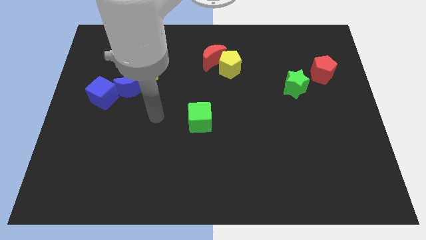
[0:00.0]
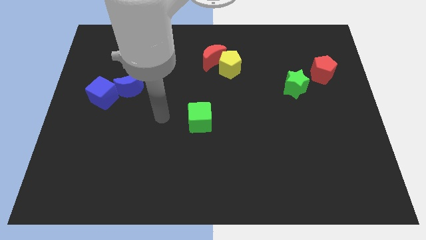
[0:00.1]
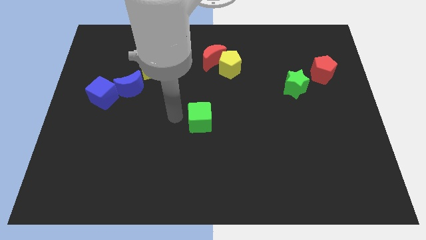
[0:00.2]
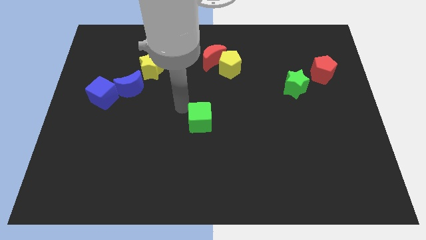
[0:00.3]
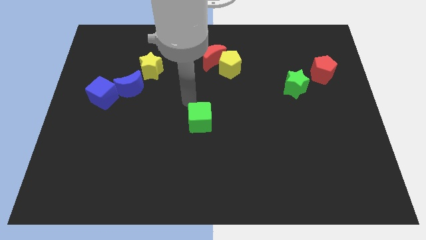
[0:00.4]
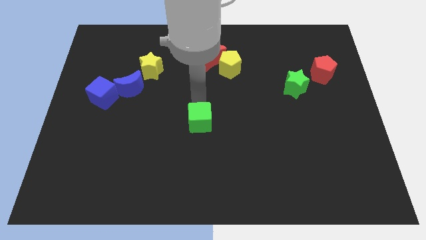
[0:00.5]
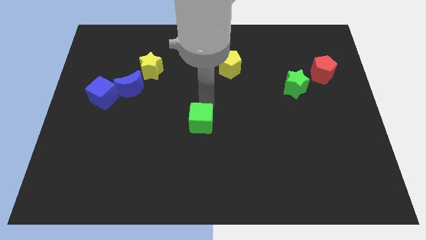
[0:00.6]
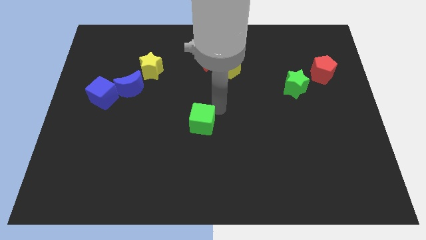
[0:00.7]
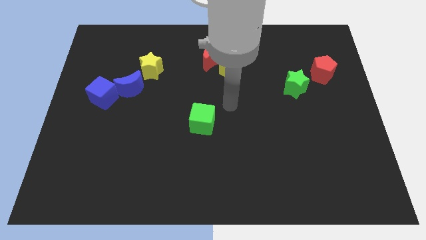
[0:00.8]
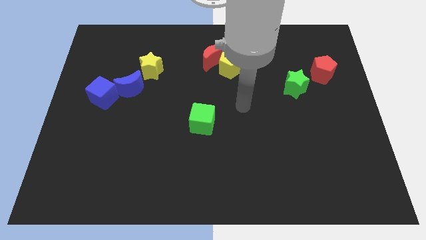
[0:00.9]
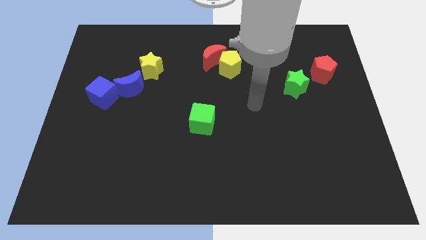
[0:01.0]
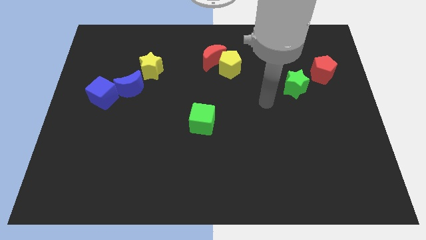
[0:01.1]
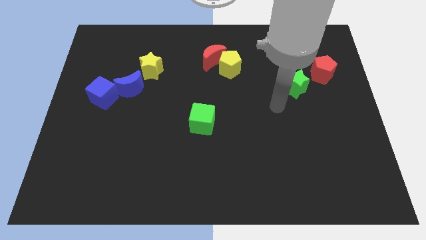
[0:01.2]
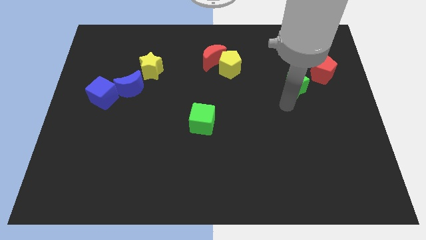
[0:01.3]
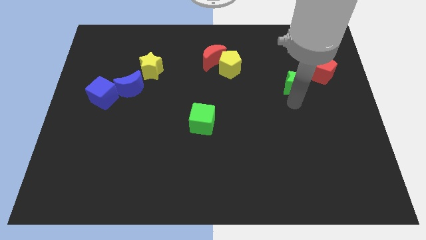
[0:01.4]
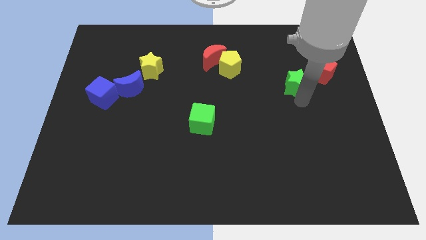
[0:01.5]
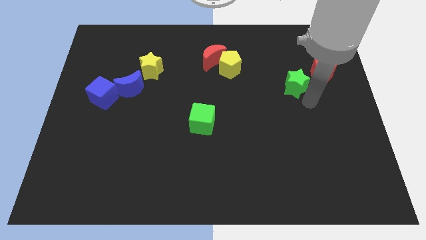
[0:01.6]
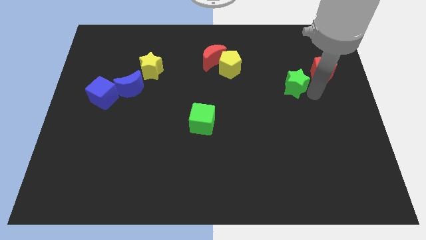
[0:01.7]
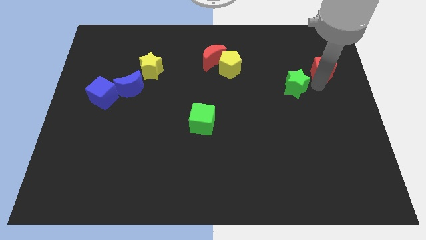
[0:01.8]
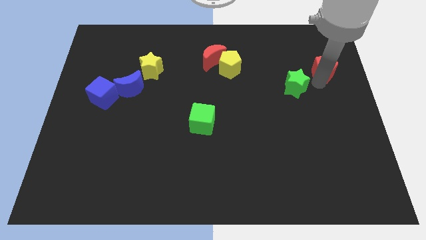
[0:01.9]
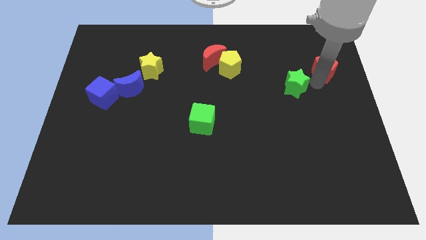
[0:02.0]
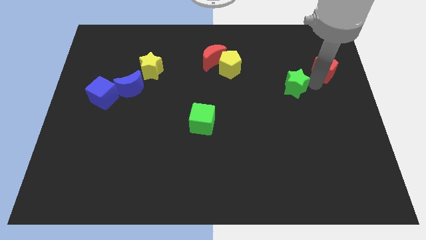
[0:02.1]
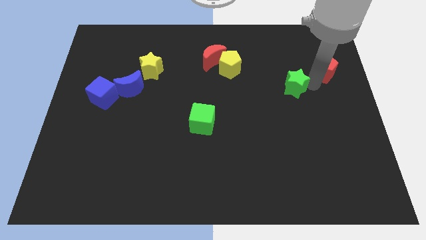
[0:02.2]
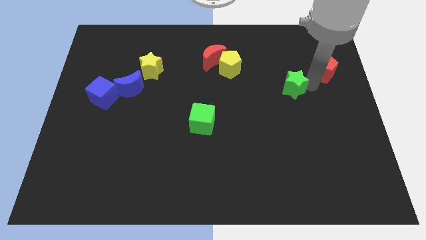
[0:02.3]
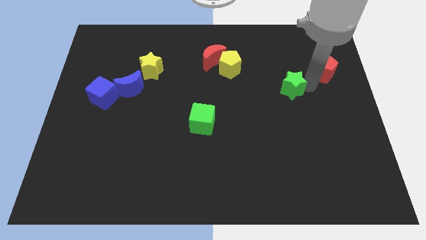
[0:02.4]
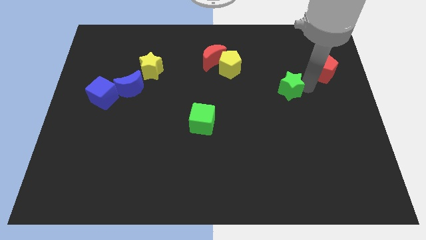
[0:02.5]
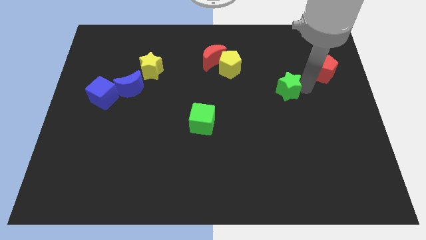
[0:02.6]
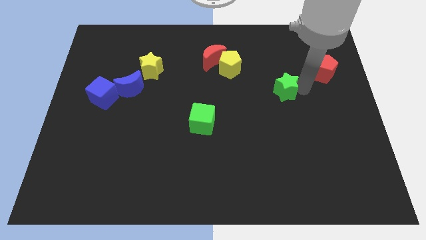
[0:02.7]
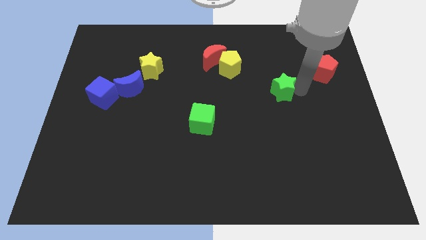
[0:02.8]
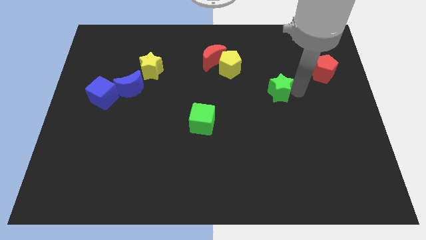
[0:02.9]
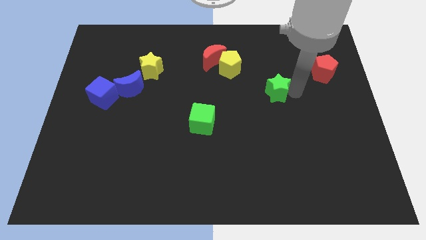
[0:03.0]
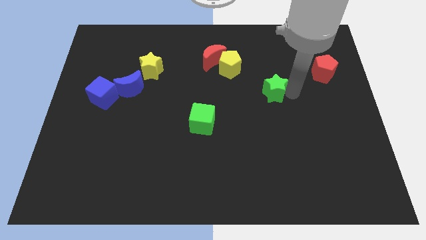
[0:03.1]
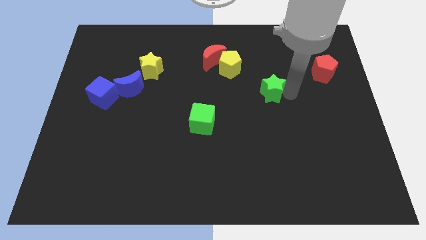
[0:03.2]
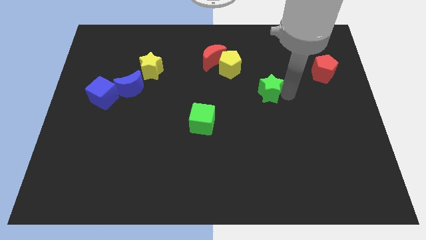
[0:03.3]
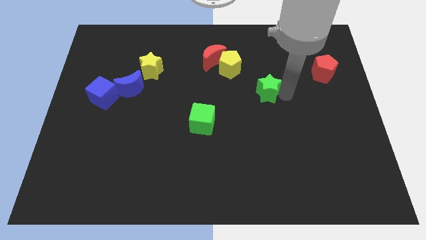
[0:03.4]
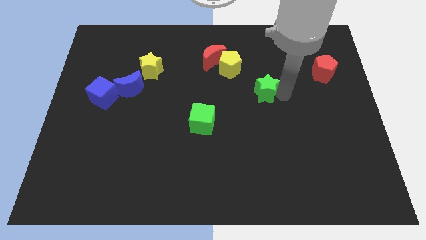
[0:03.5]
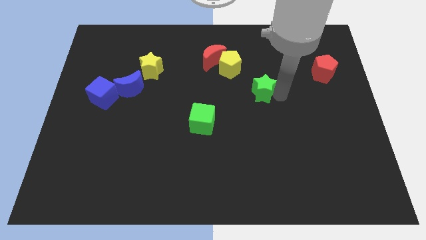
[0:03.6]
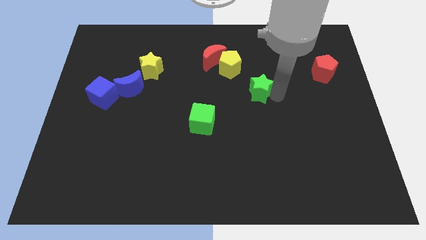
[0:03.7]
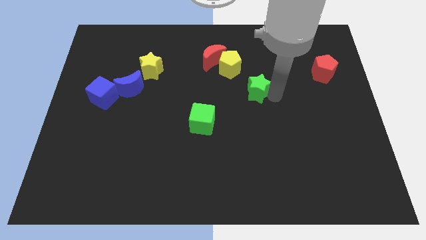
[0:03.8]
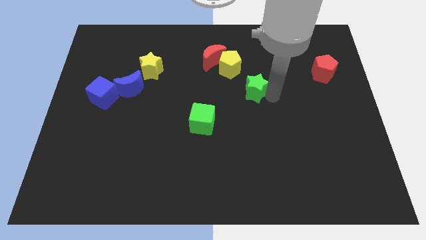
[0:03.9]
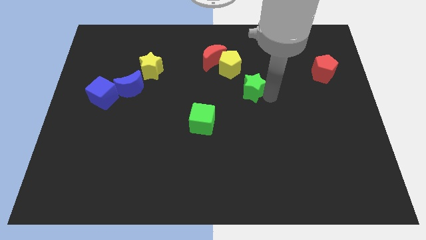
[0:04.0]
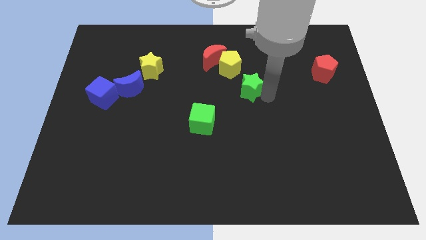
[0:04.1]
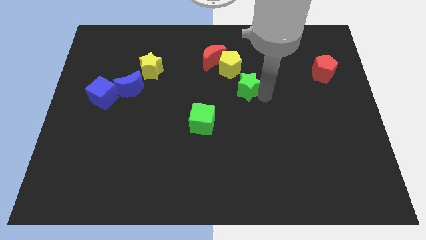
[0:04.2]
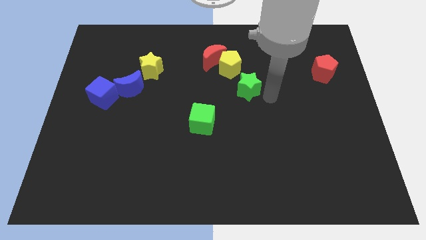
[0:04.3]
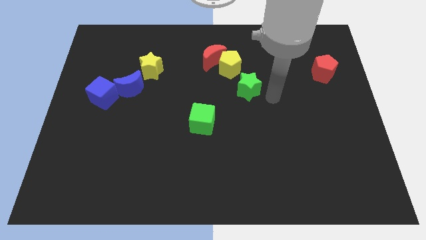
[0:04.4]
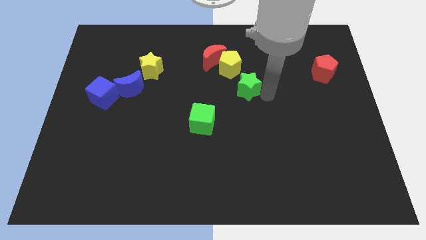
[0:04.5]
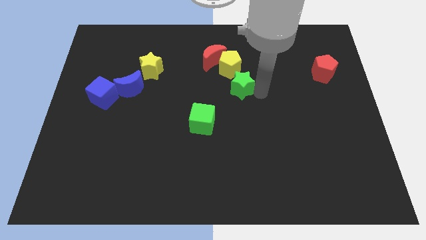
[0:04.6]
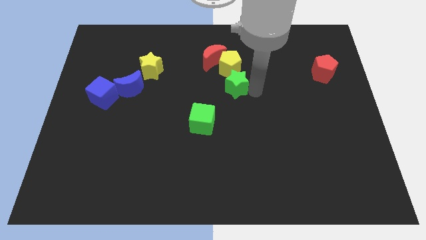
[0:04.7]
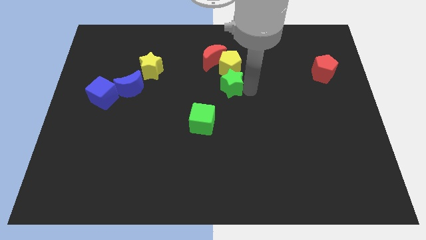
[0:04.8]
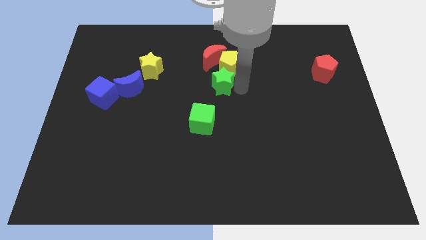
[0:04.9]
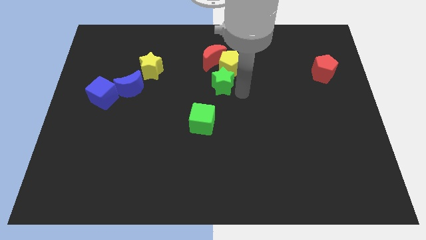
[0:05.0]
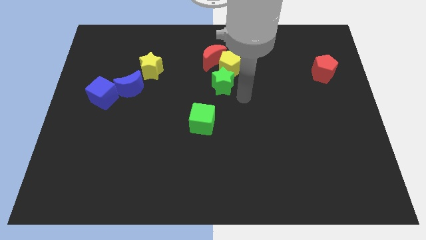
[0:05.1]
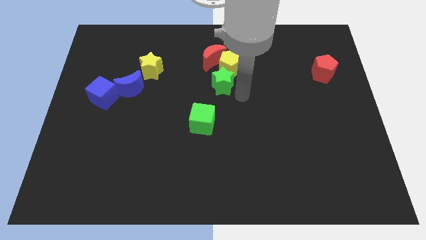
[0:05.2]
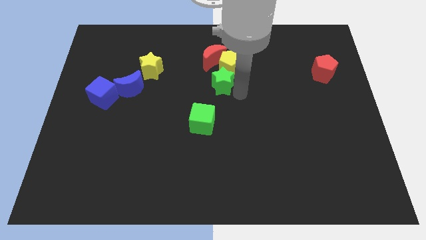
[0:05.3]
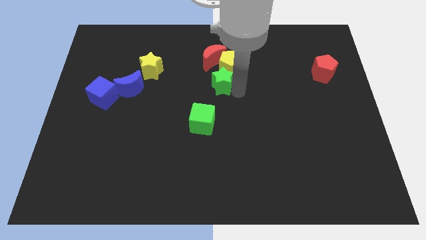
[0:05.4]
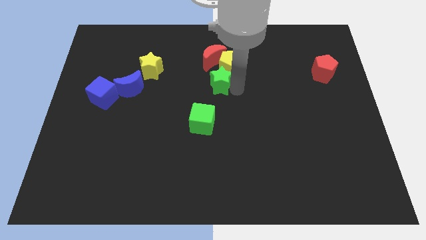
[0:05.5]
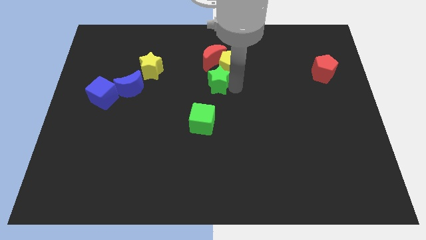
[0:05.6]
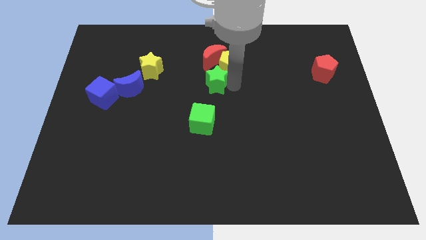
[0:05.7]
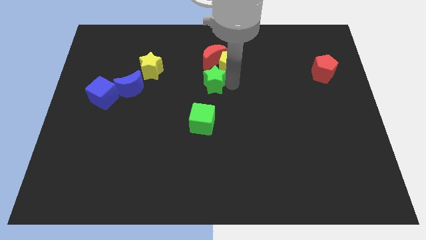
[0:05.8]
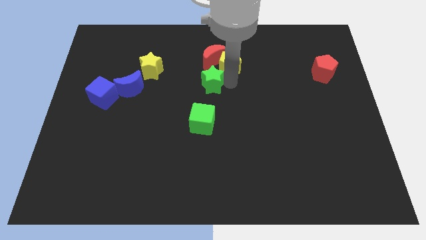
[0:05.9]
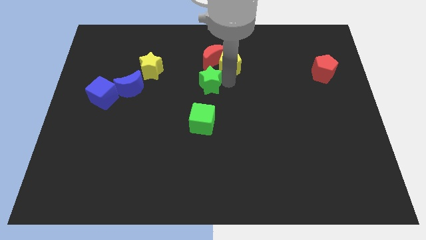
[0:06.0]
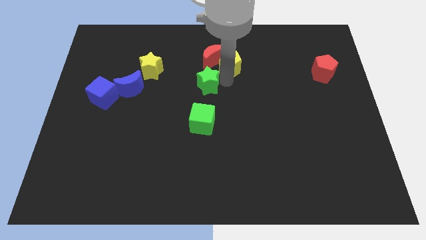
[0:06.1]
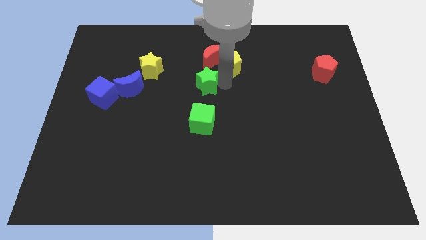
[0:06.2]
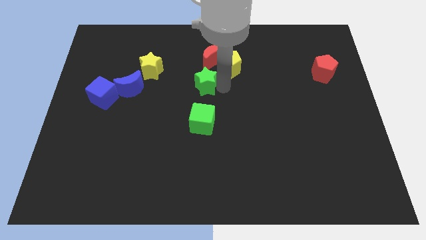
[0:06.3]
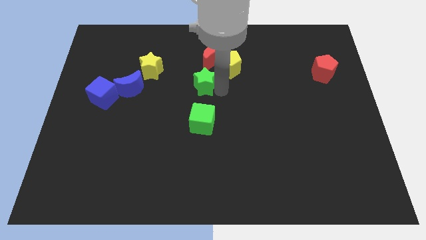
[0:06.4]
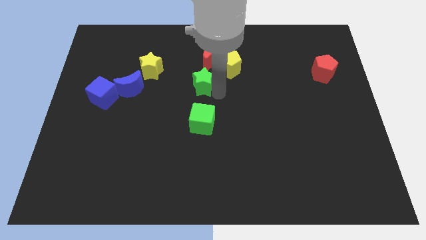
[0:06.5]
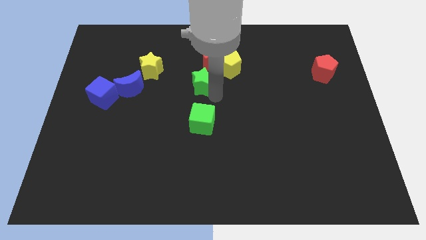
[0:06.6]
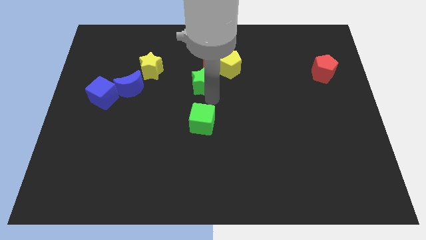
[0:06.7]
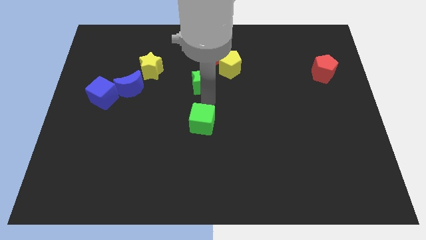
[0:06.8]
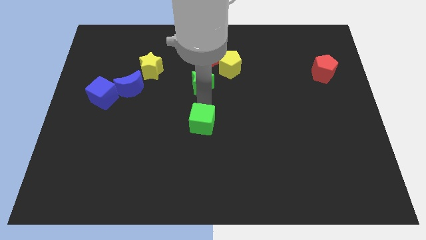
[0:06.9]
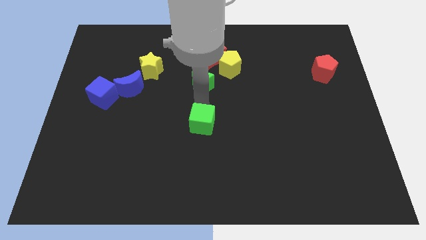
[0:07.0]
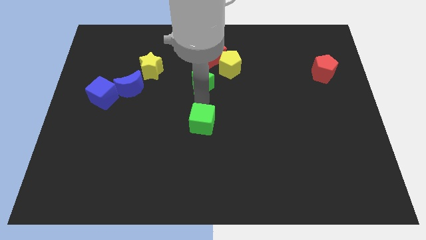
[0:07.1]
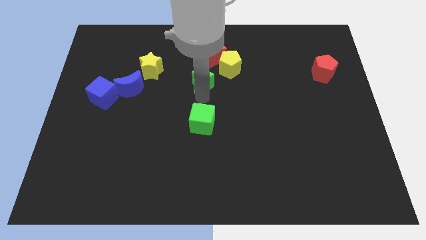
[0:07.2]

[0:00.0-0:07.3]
put the green star right of the yellow star

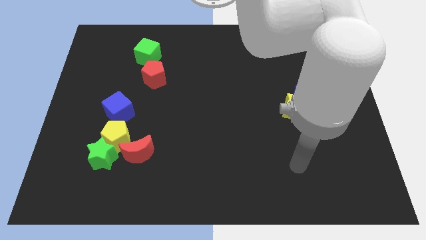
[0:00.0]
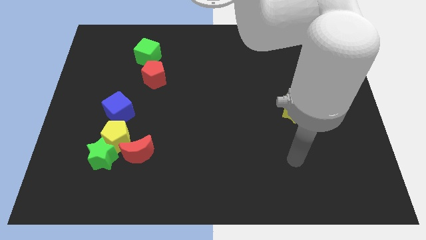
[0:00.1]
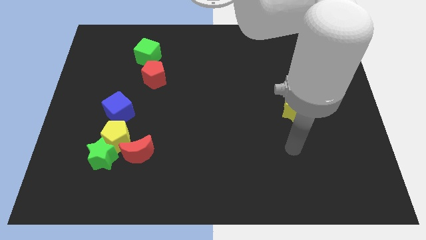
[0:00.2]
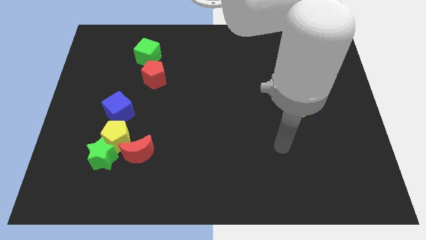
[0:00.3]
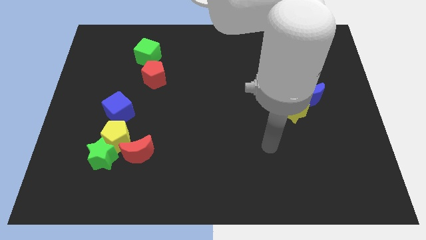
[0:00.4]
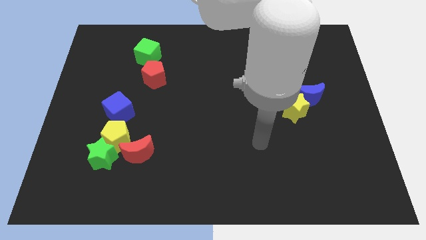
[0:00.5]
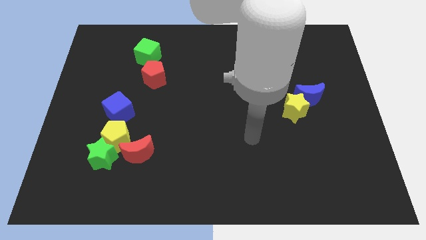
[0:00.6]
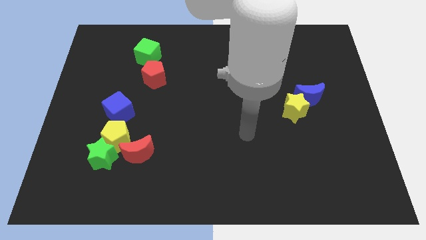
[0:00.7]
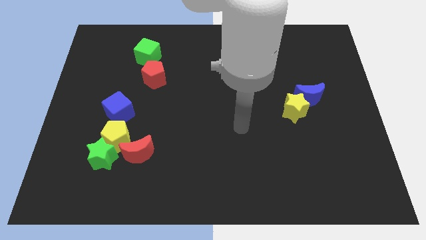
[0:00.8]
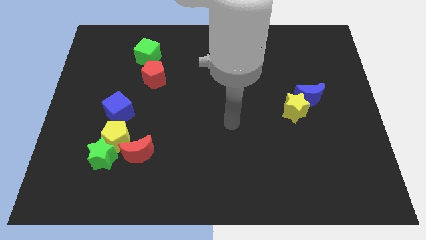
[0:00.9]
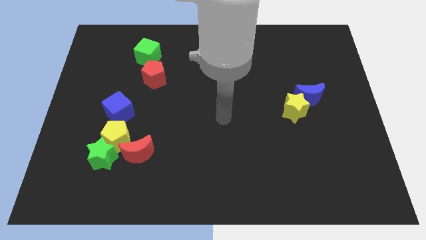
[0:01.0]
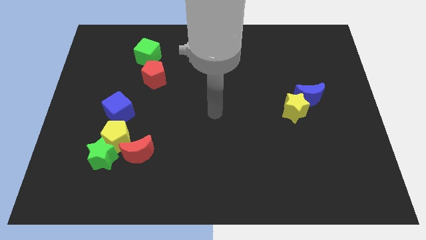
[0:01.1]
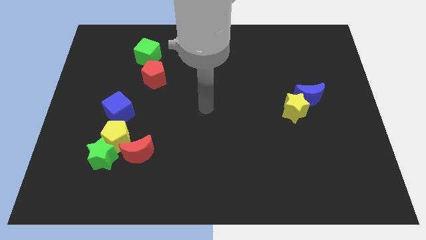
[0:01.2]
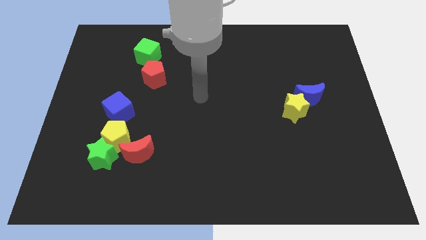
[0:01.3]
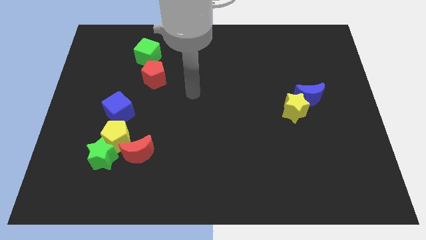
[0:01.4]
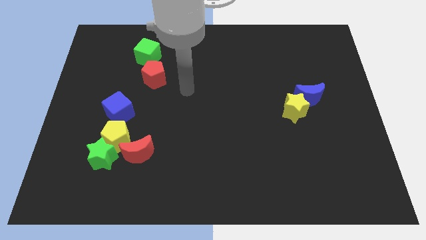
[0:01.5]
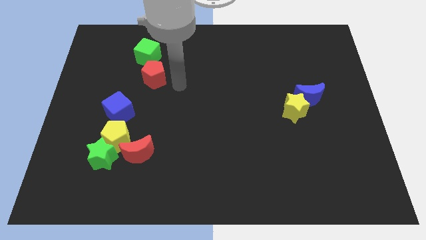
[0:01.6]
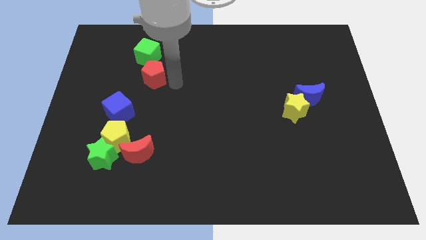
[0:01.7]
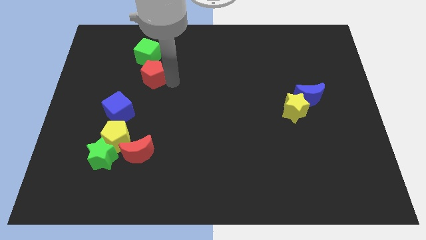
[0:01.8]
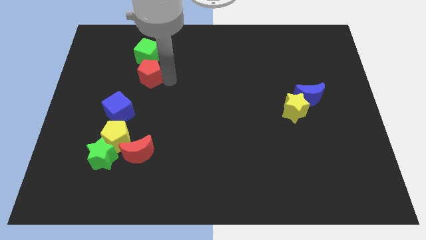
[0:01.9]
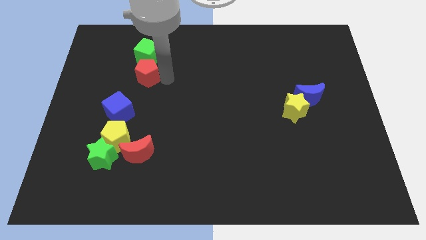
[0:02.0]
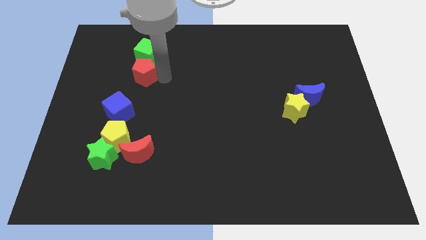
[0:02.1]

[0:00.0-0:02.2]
put the red pentagon diagonally down and to the left of the green cube
